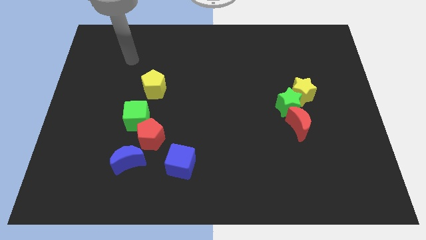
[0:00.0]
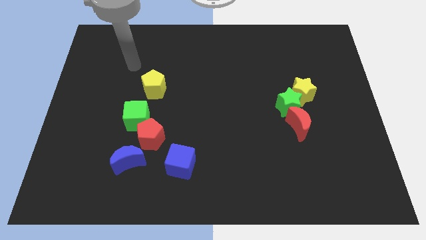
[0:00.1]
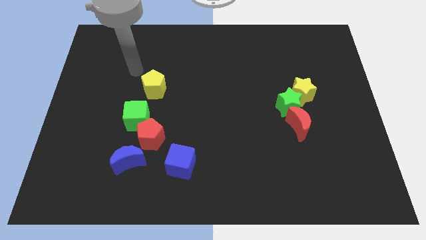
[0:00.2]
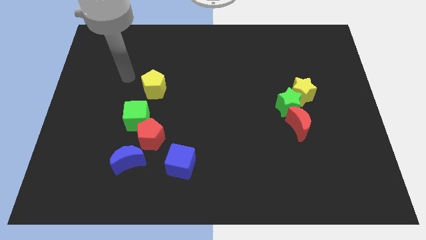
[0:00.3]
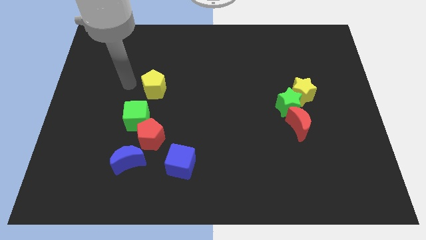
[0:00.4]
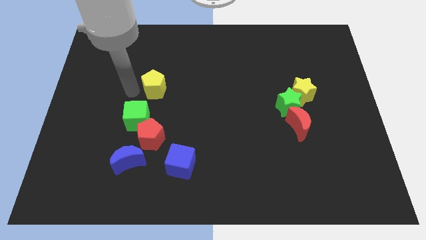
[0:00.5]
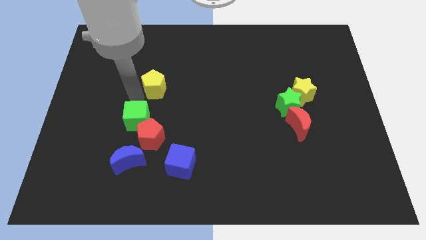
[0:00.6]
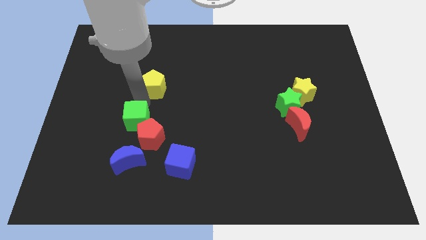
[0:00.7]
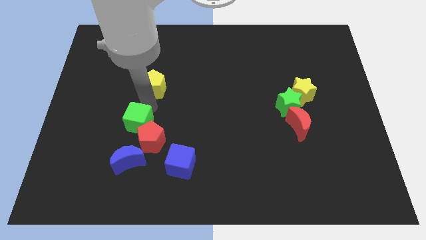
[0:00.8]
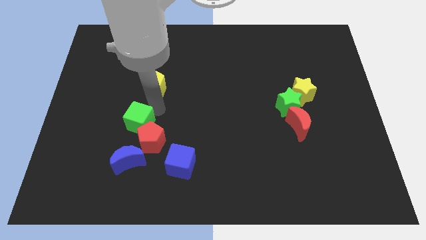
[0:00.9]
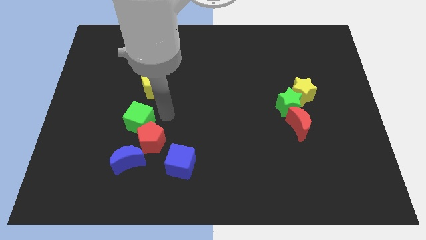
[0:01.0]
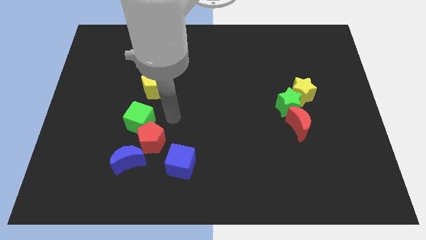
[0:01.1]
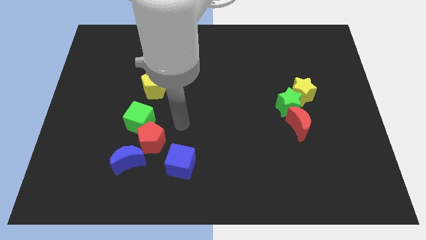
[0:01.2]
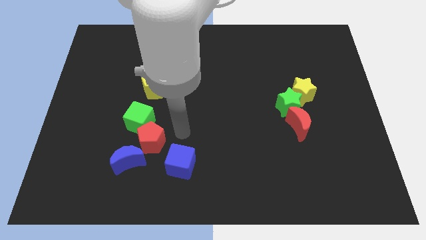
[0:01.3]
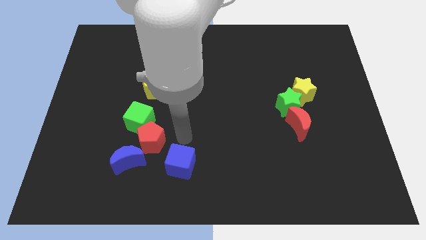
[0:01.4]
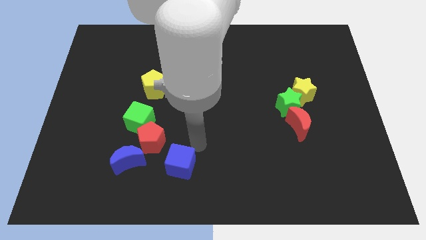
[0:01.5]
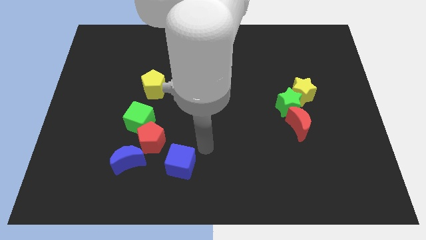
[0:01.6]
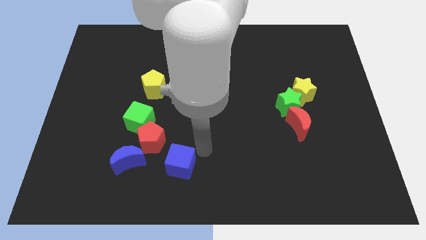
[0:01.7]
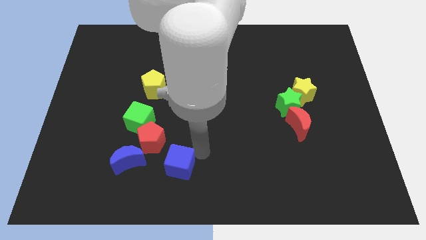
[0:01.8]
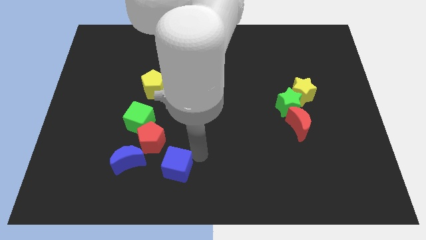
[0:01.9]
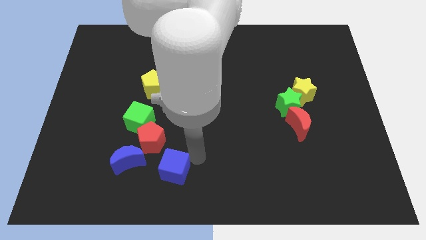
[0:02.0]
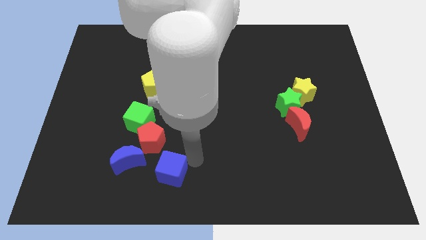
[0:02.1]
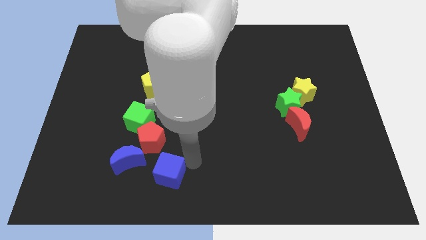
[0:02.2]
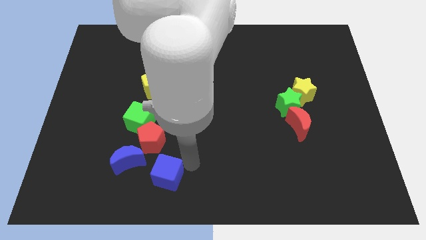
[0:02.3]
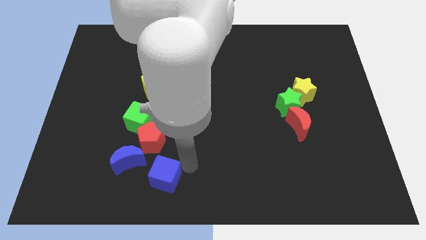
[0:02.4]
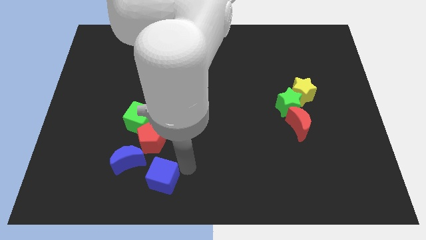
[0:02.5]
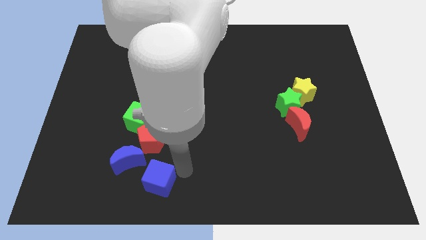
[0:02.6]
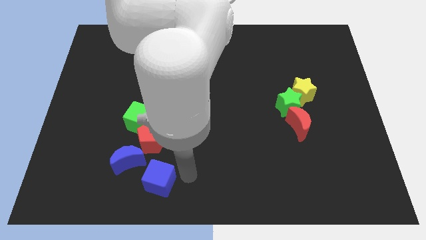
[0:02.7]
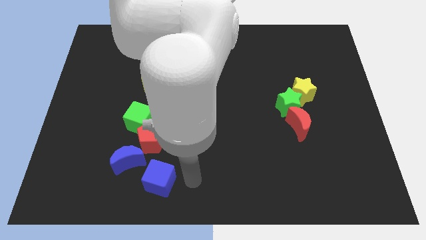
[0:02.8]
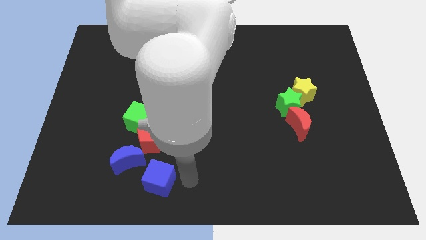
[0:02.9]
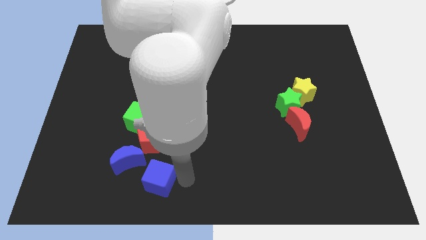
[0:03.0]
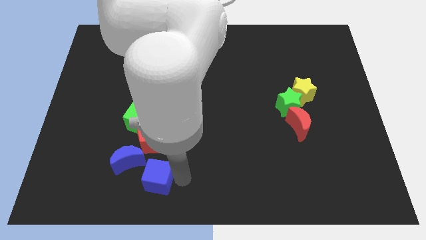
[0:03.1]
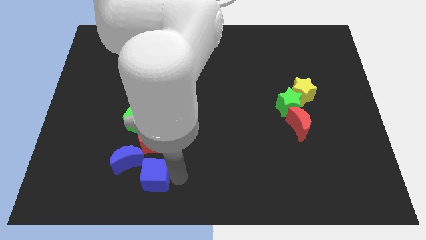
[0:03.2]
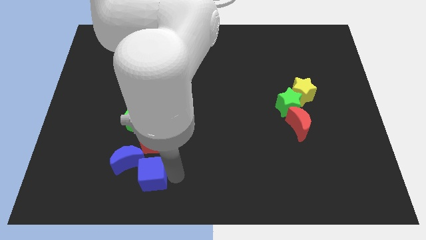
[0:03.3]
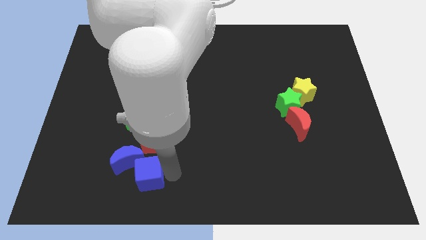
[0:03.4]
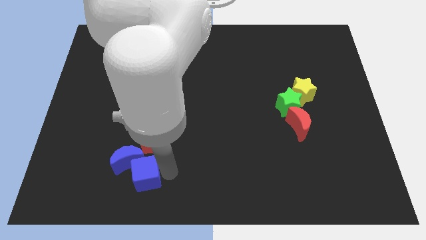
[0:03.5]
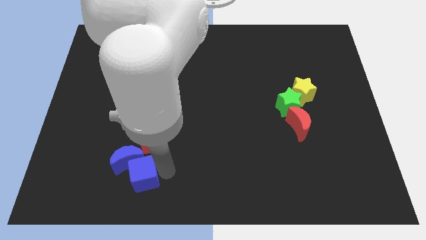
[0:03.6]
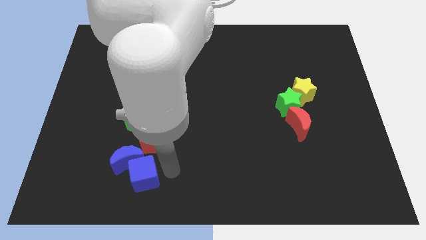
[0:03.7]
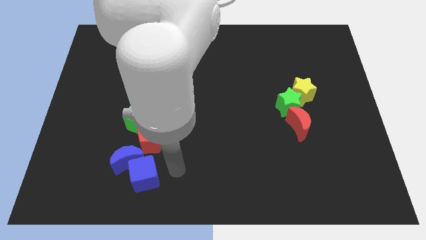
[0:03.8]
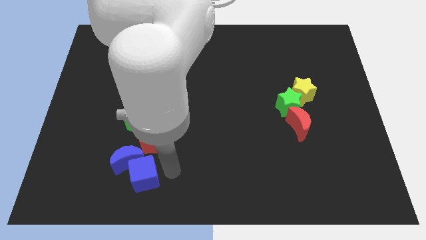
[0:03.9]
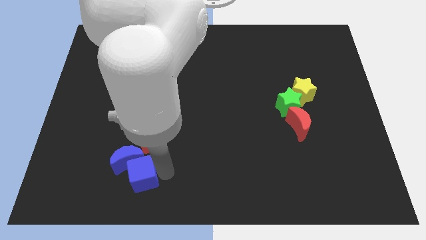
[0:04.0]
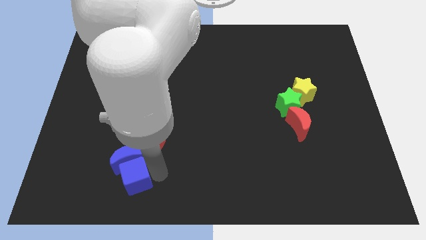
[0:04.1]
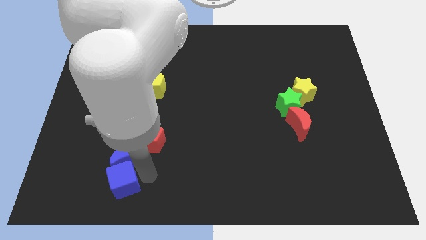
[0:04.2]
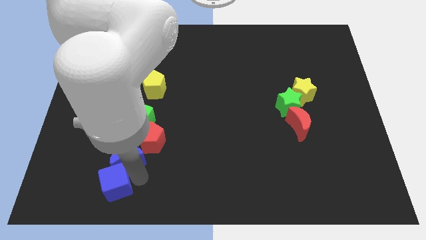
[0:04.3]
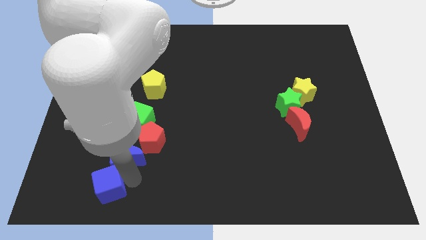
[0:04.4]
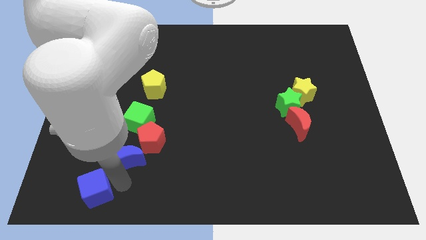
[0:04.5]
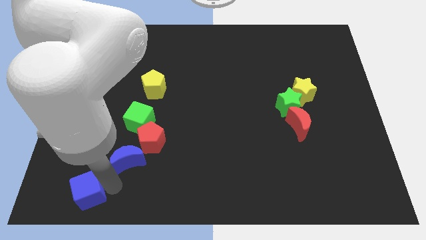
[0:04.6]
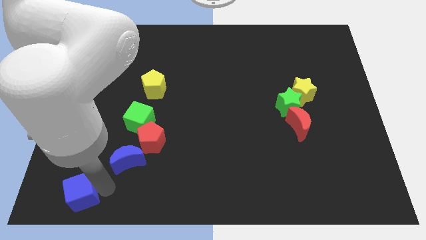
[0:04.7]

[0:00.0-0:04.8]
slide the blue cube to the bottom left

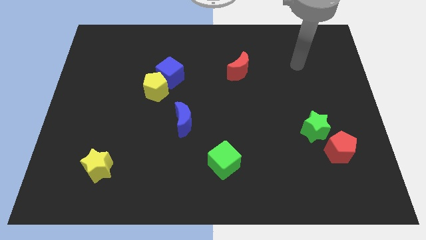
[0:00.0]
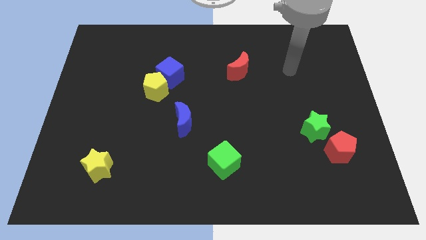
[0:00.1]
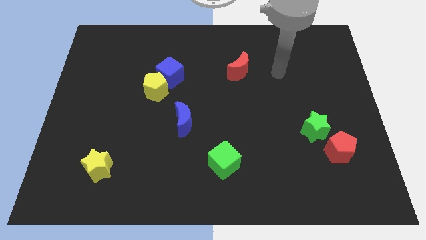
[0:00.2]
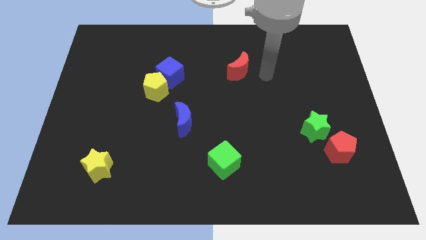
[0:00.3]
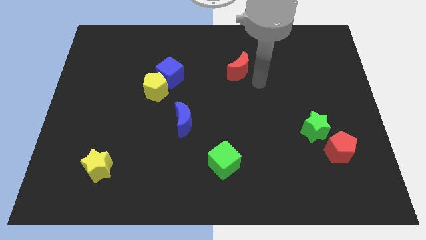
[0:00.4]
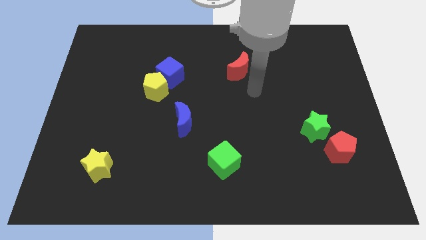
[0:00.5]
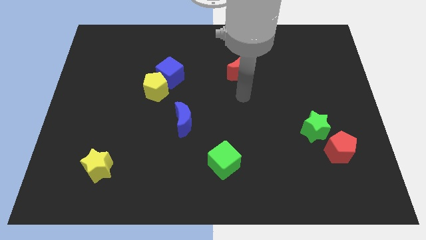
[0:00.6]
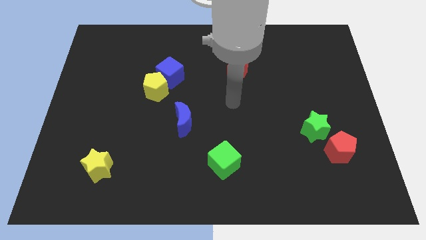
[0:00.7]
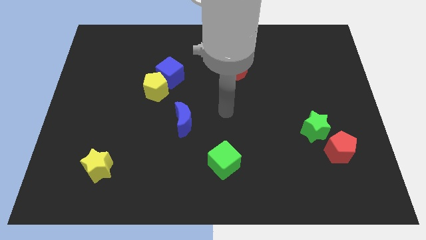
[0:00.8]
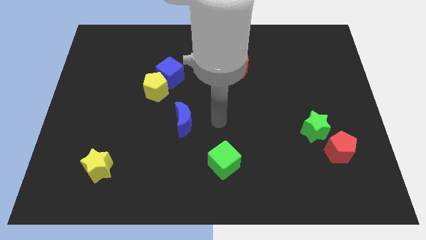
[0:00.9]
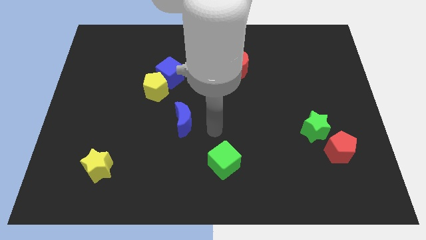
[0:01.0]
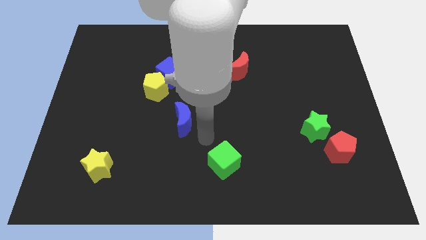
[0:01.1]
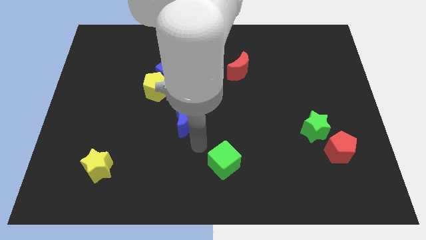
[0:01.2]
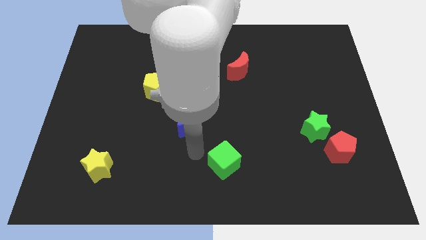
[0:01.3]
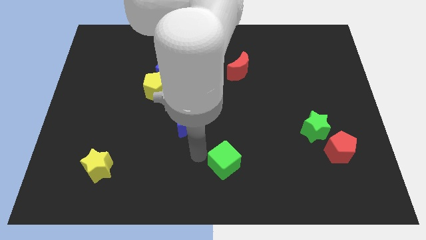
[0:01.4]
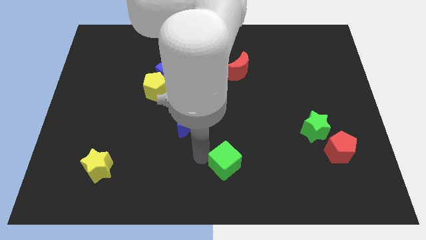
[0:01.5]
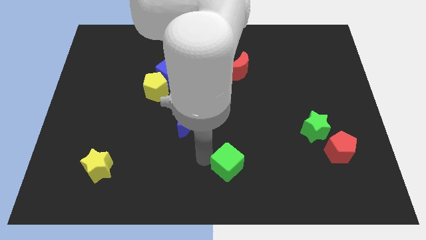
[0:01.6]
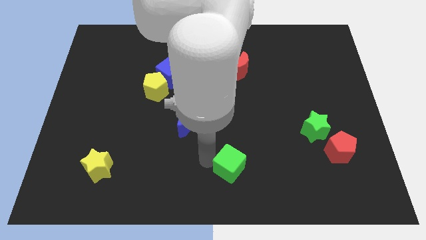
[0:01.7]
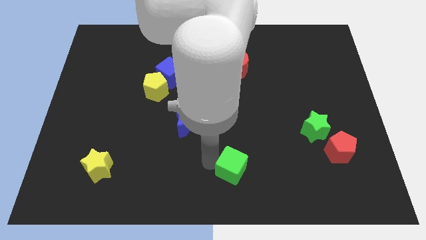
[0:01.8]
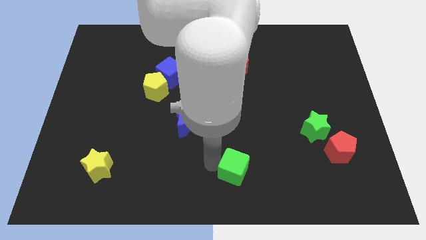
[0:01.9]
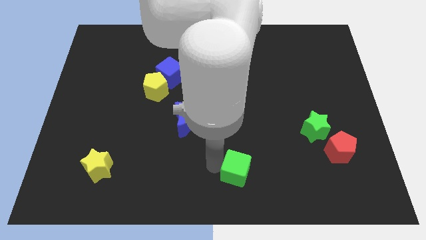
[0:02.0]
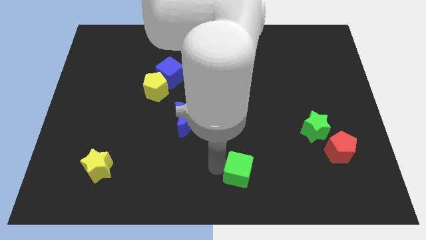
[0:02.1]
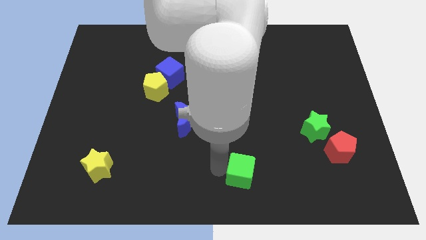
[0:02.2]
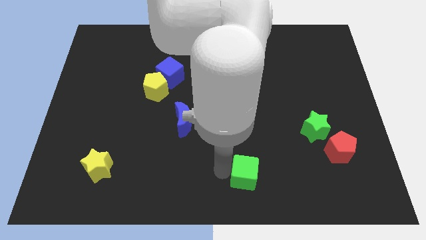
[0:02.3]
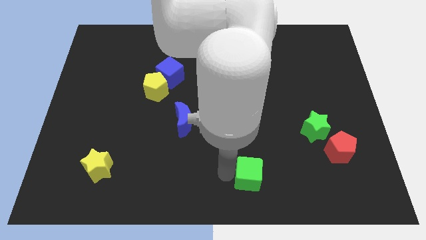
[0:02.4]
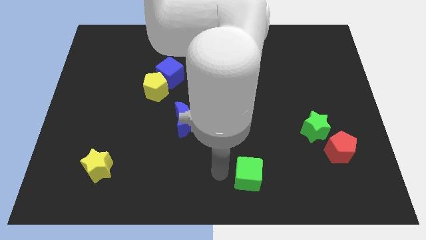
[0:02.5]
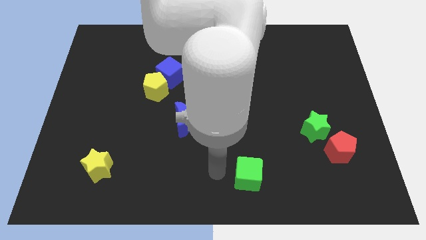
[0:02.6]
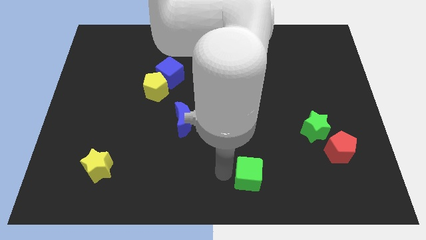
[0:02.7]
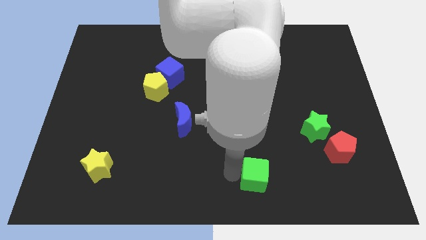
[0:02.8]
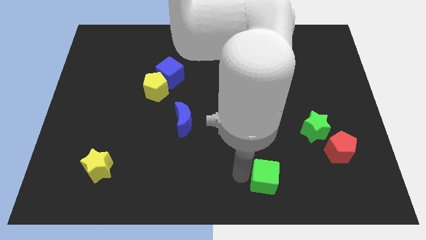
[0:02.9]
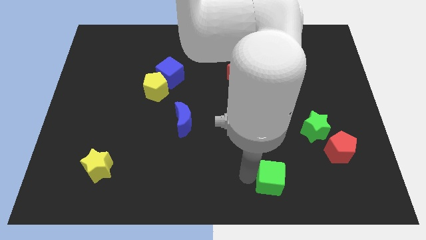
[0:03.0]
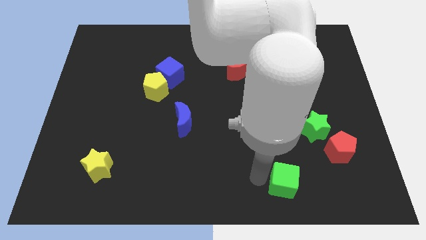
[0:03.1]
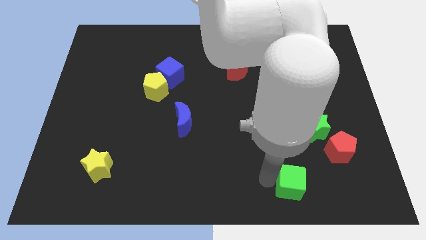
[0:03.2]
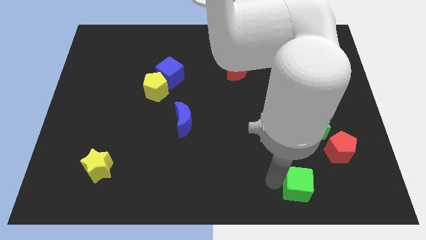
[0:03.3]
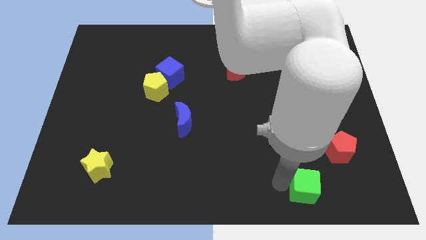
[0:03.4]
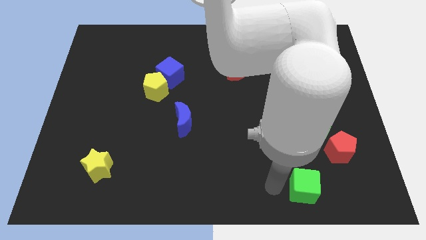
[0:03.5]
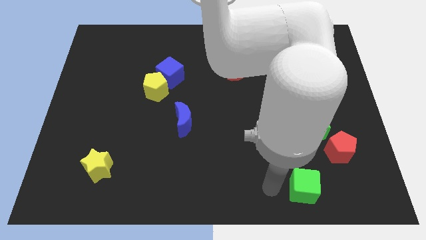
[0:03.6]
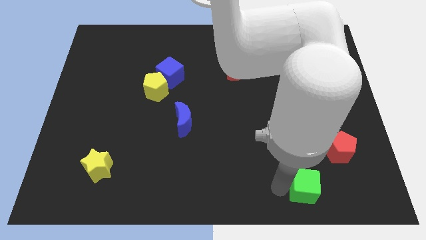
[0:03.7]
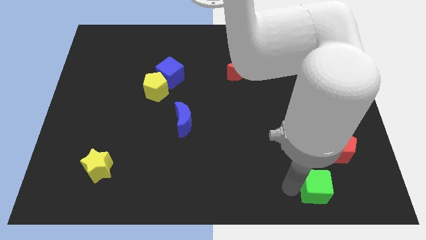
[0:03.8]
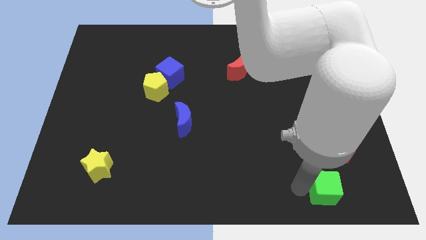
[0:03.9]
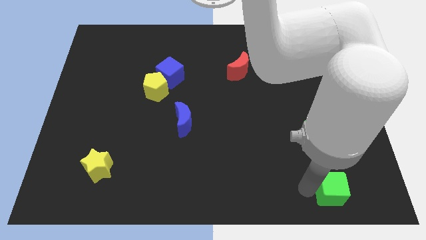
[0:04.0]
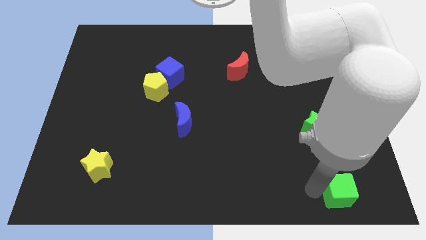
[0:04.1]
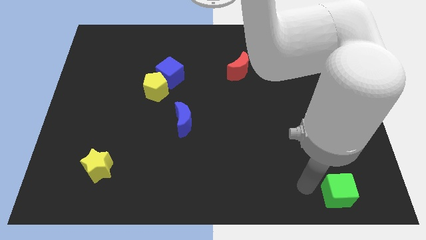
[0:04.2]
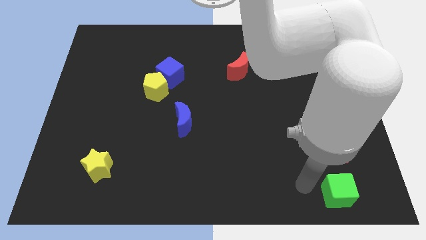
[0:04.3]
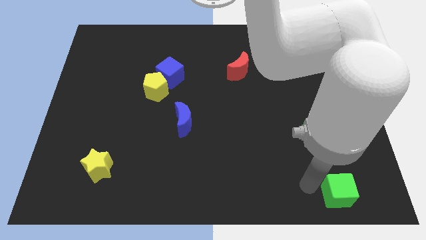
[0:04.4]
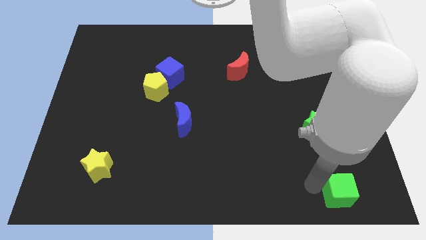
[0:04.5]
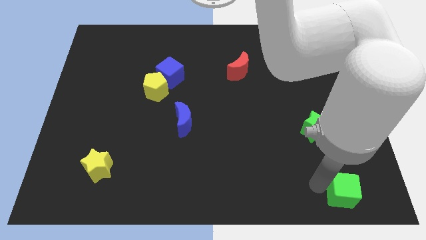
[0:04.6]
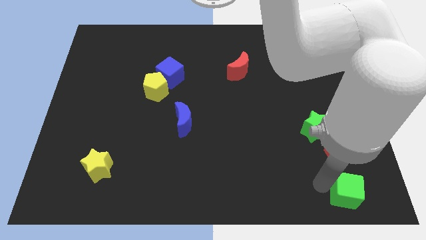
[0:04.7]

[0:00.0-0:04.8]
push the green cube to the bottom right of the board
